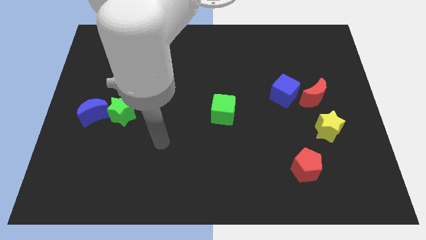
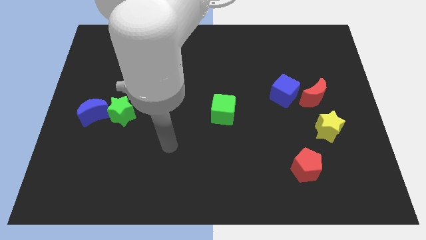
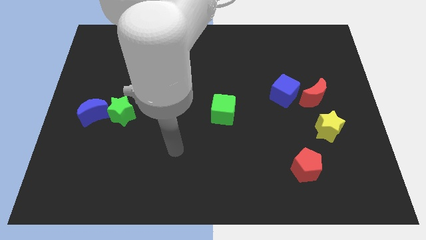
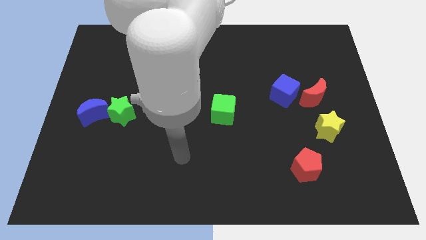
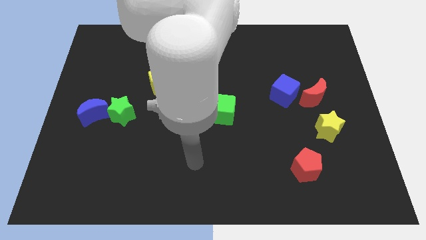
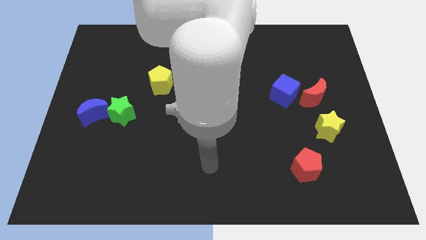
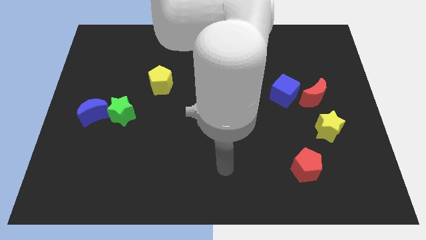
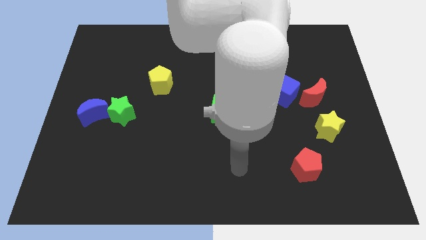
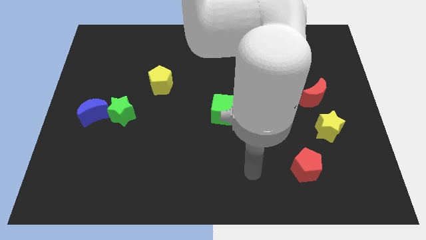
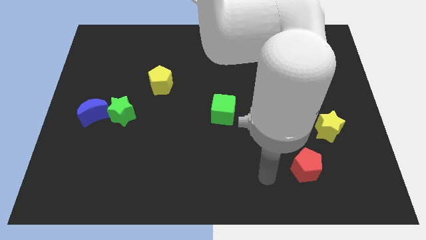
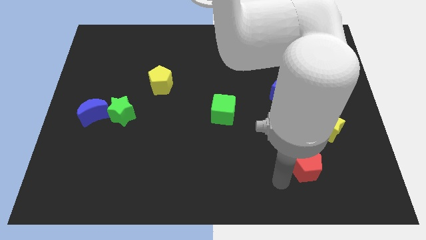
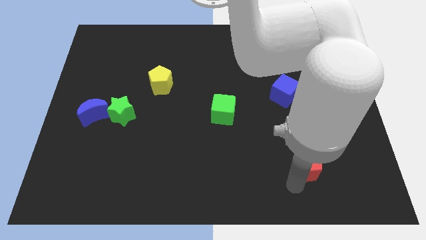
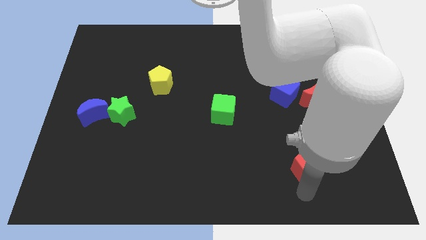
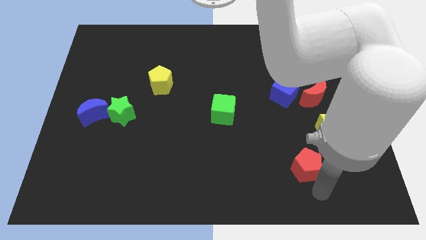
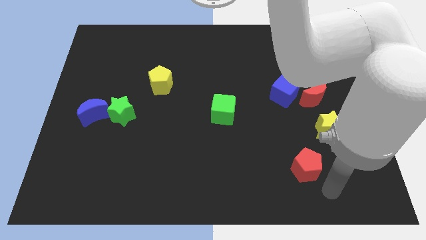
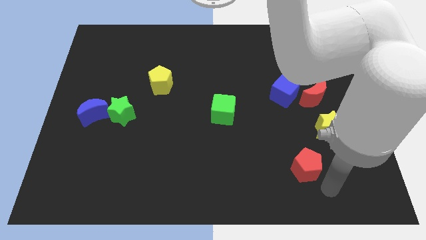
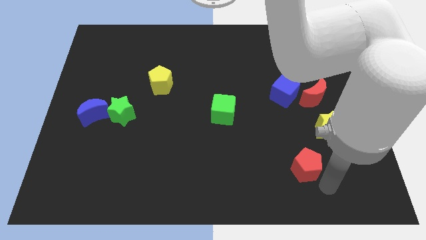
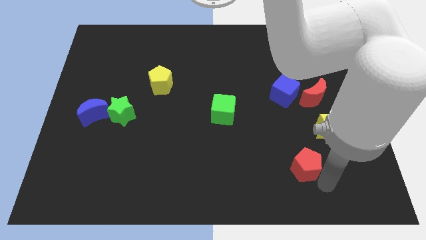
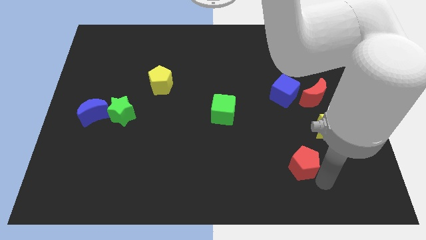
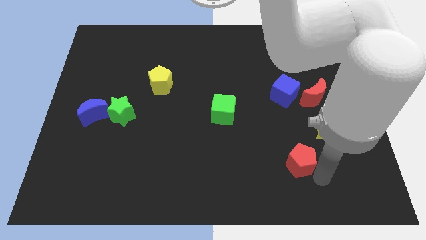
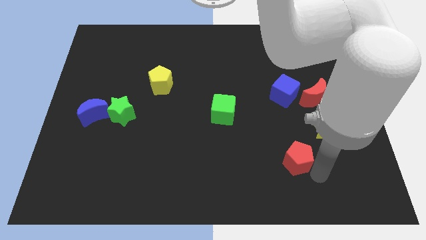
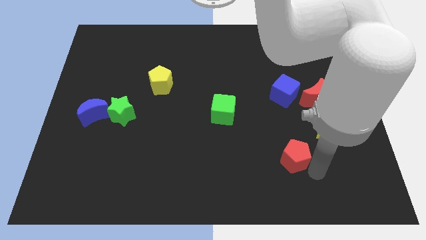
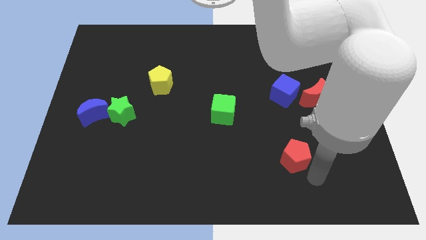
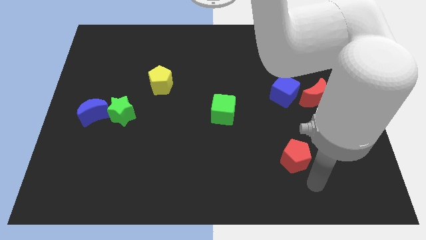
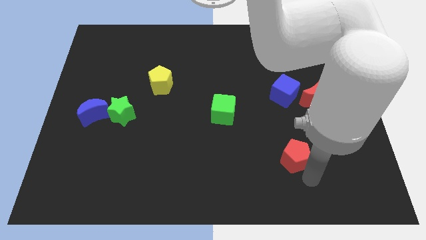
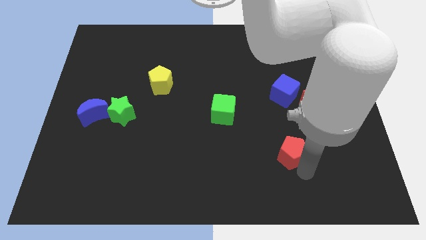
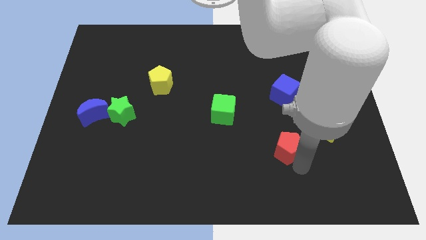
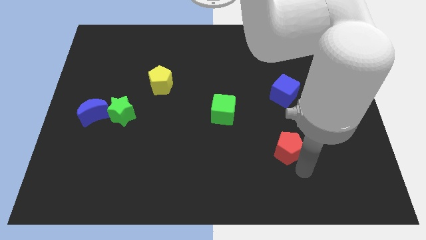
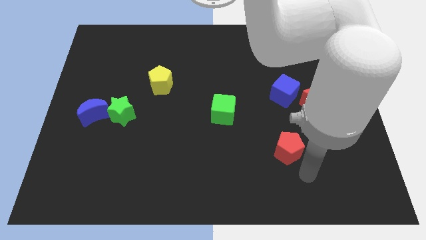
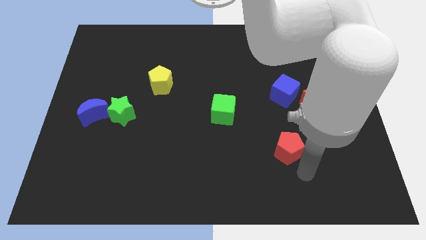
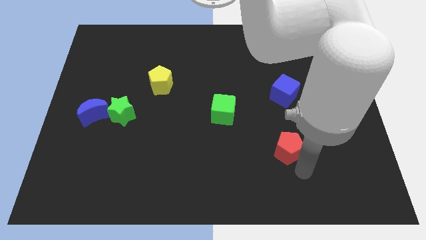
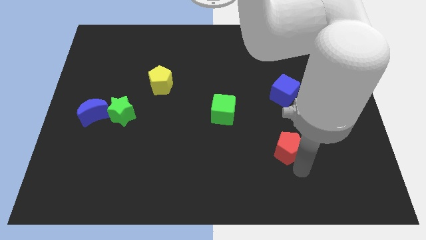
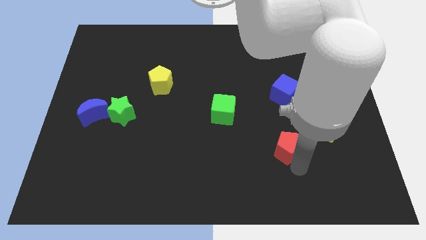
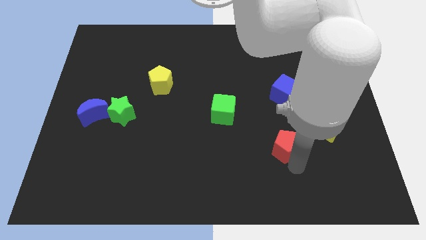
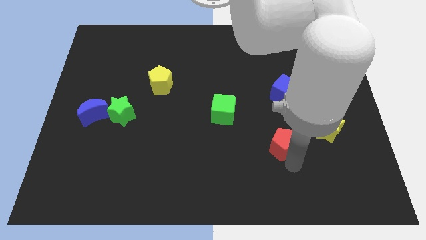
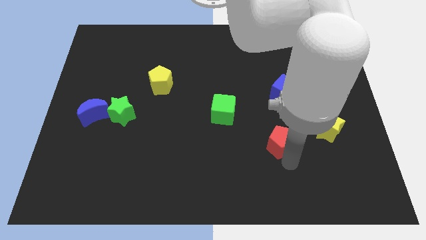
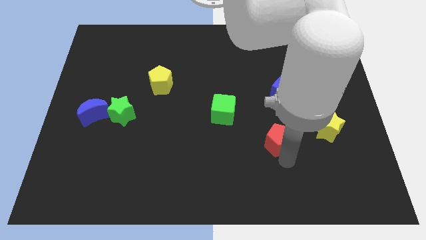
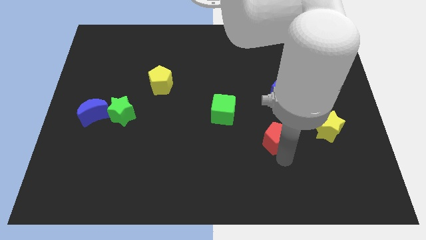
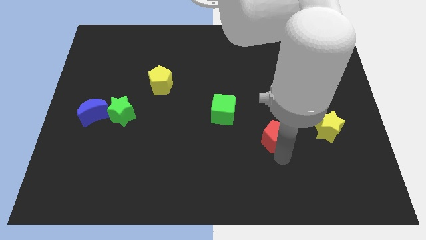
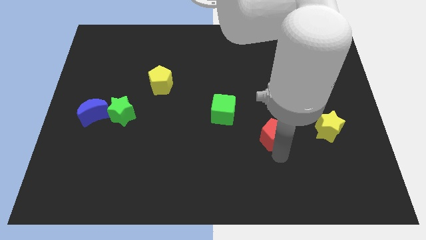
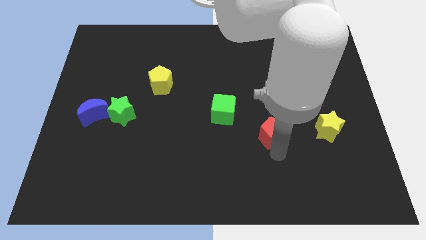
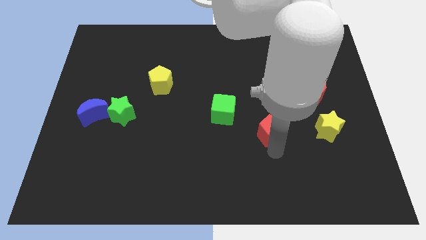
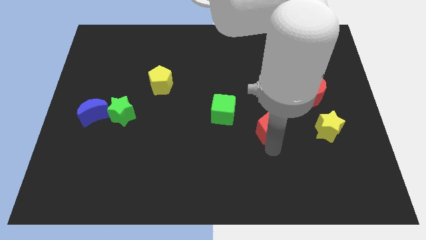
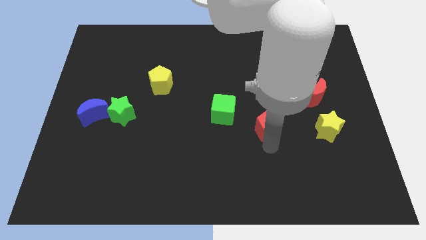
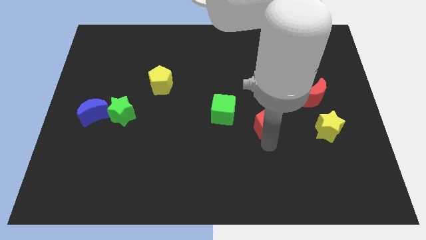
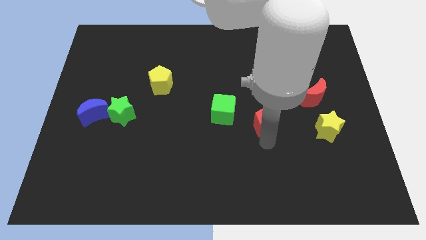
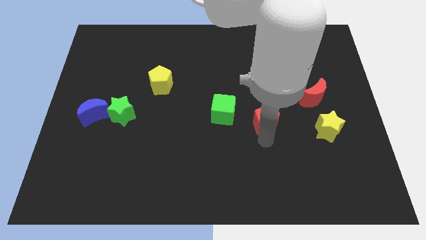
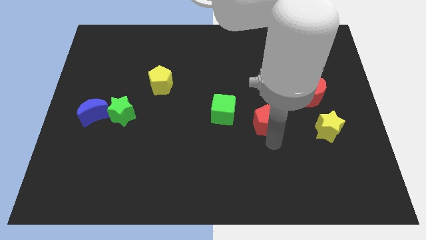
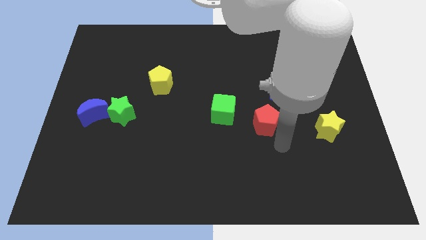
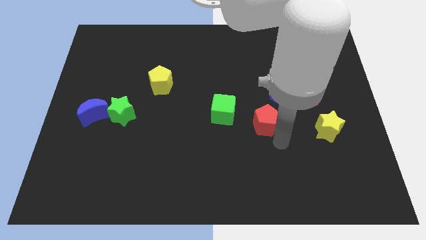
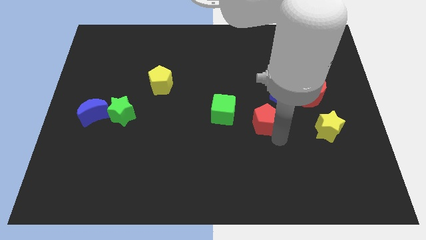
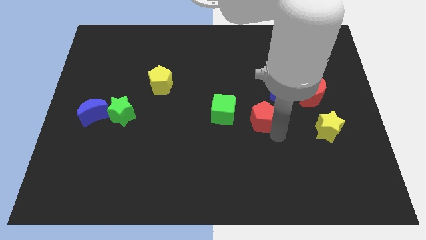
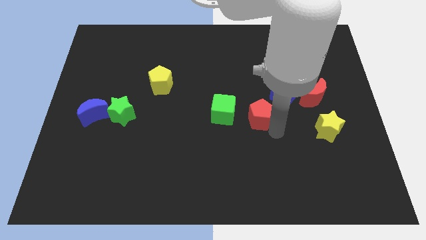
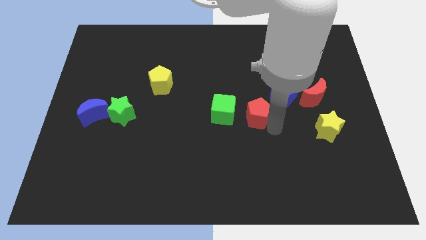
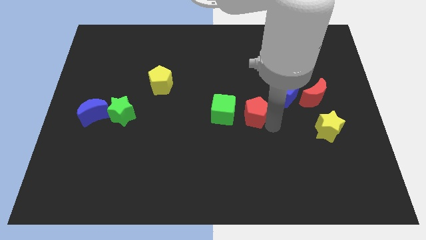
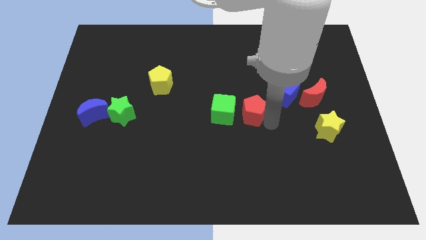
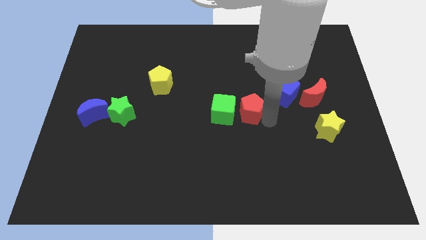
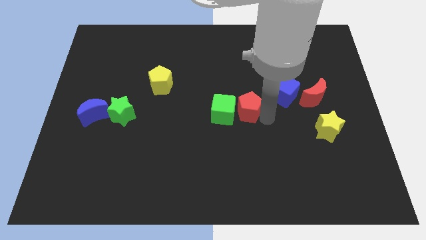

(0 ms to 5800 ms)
put the red pentagon left of the blue cube

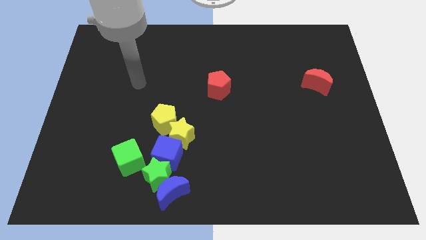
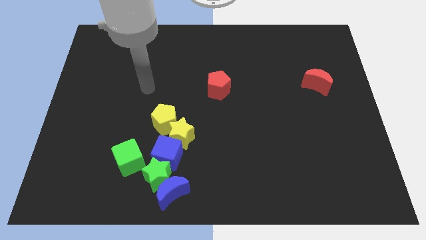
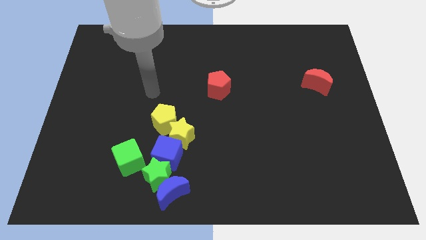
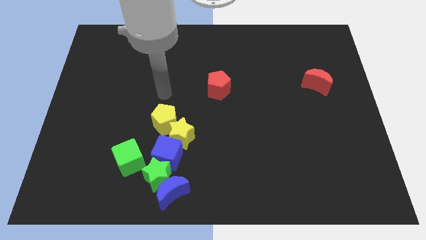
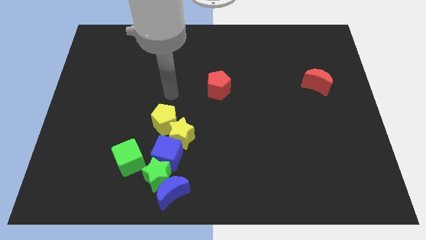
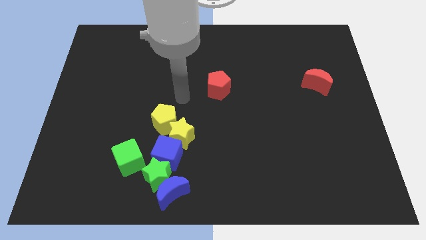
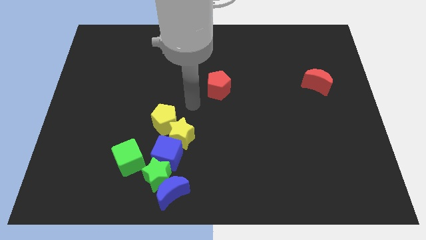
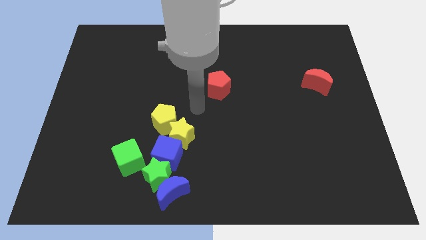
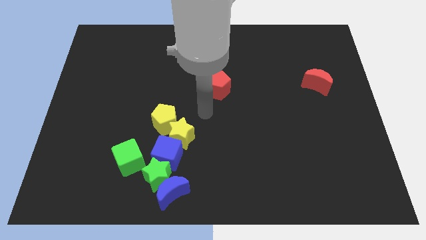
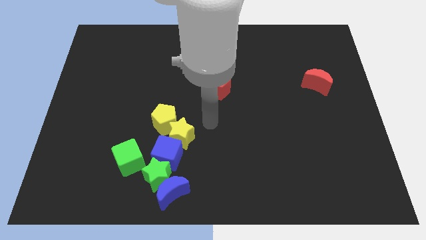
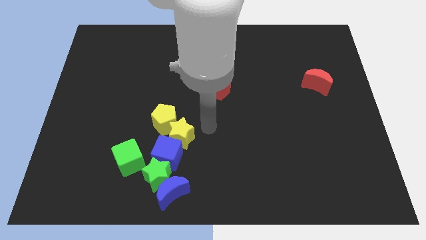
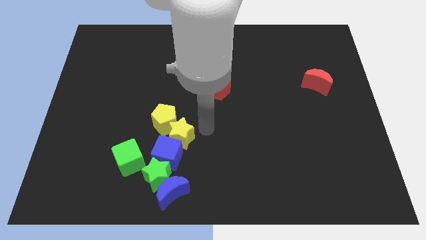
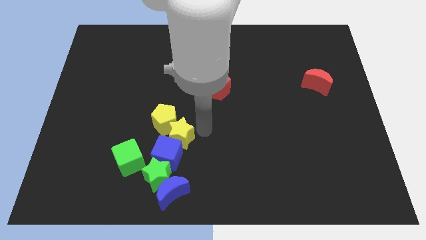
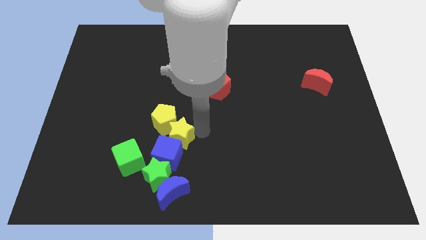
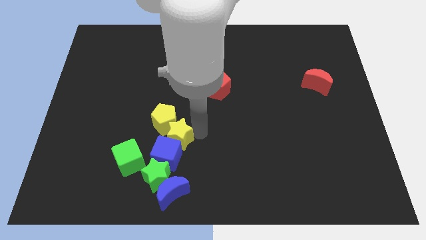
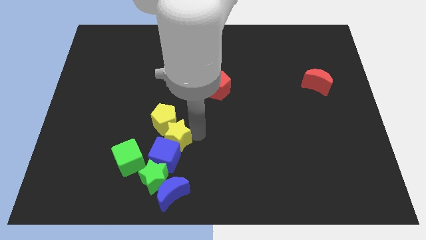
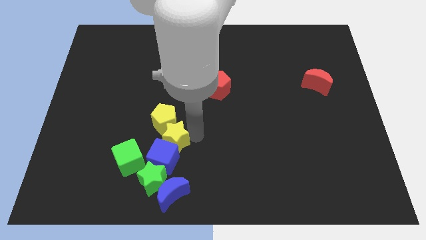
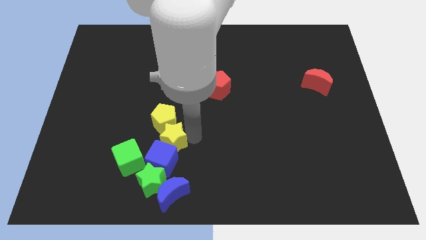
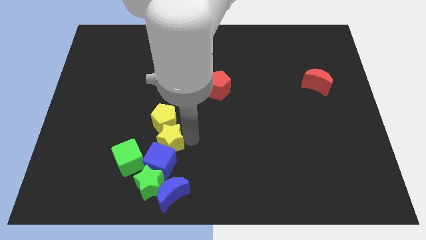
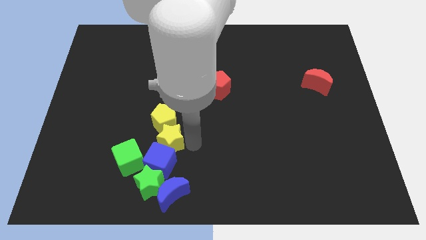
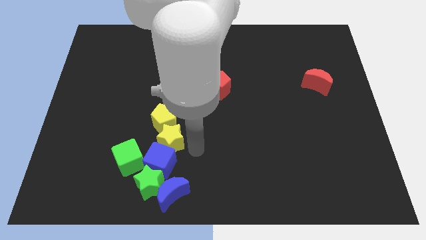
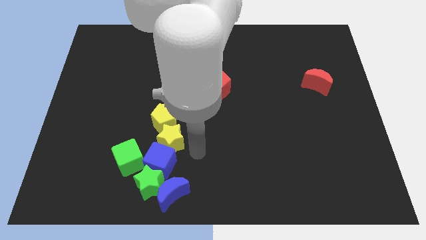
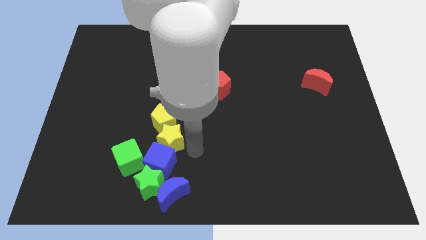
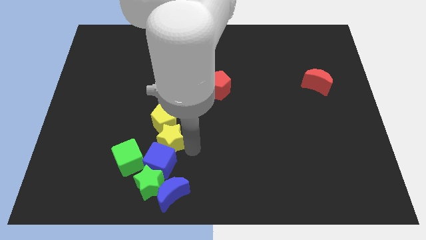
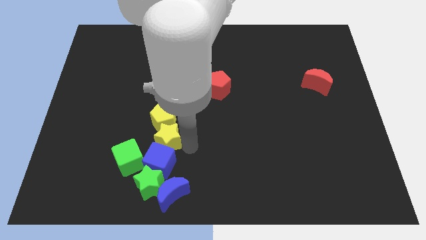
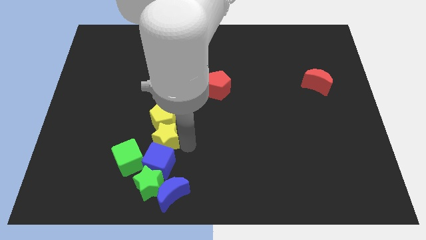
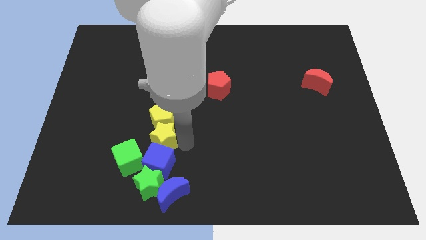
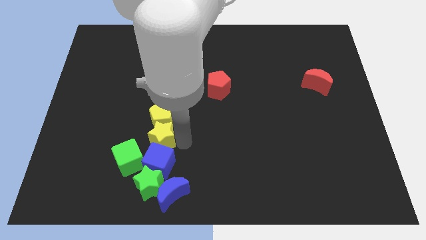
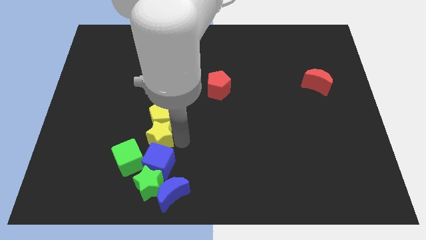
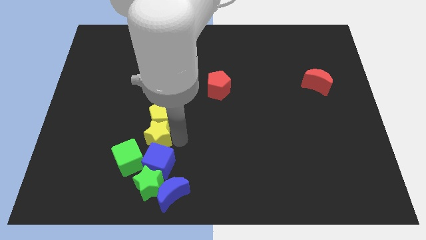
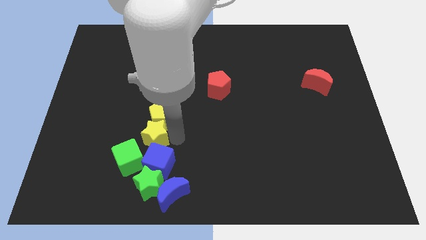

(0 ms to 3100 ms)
push the yellow star to the top side of the green cube
